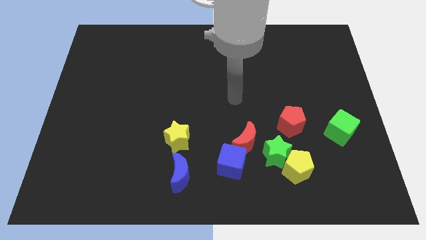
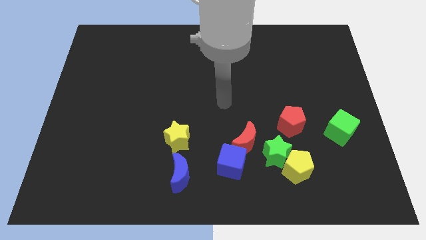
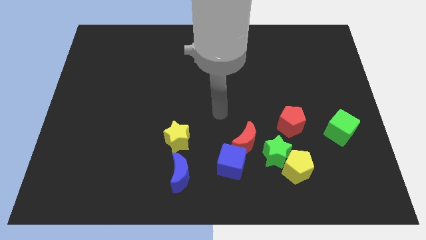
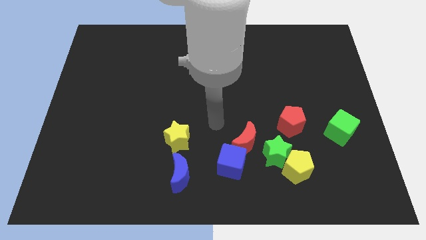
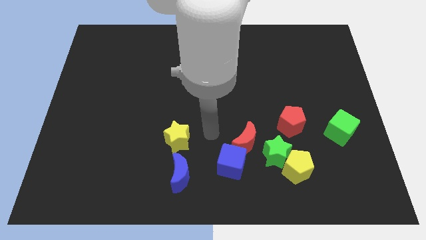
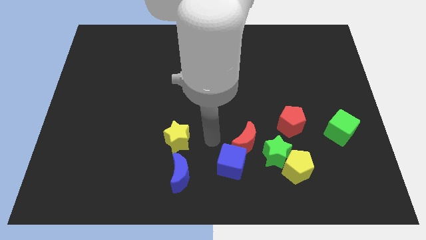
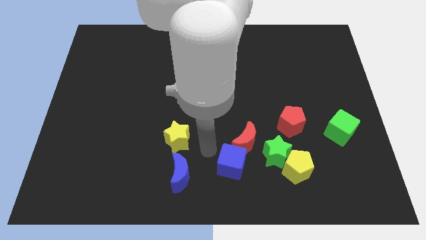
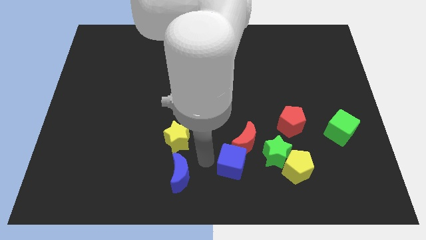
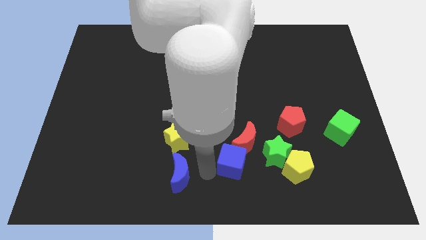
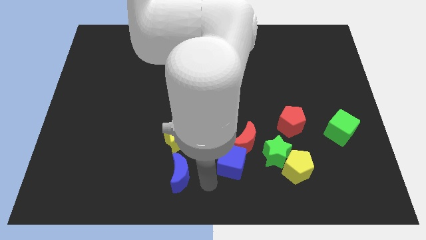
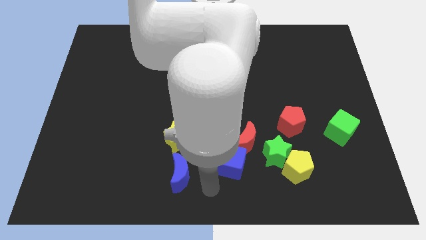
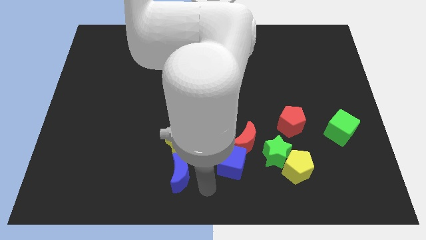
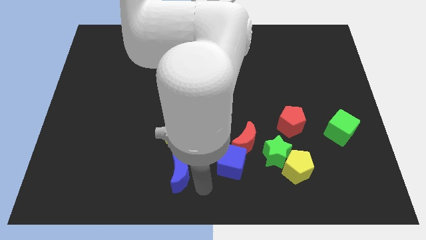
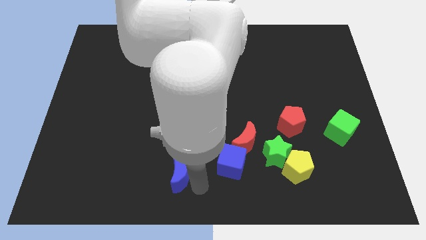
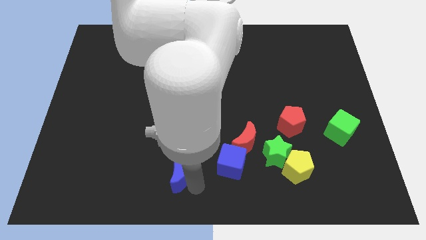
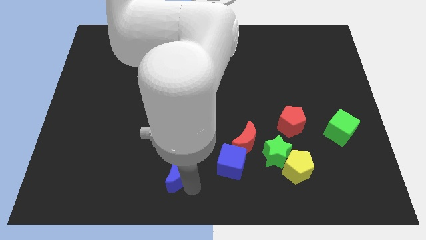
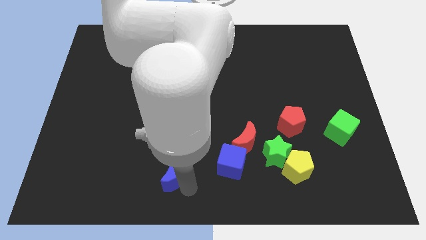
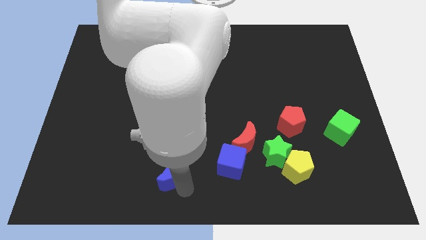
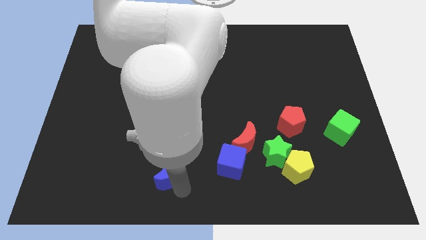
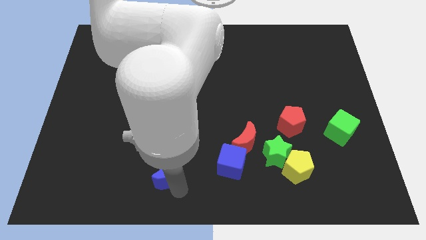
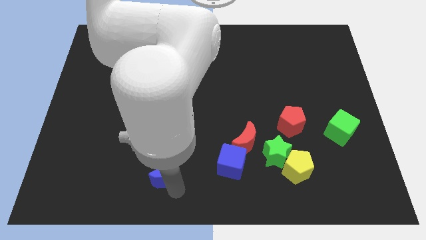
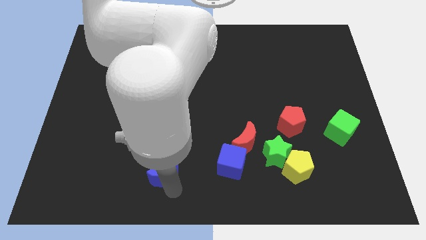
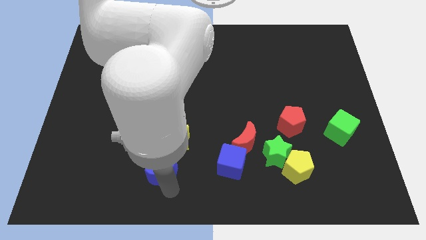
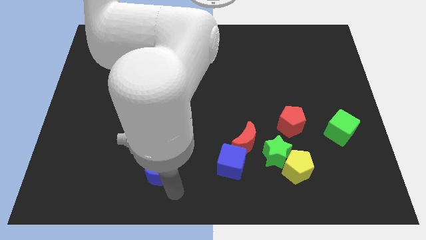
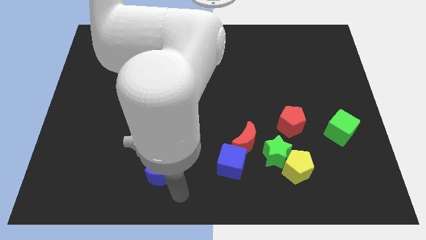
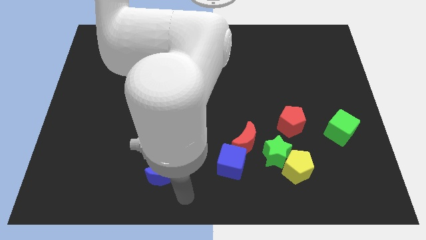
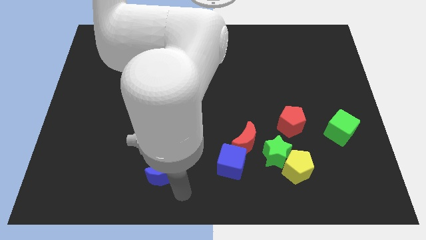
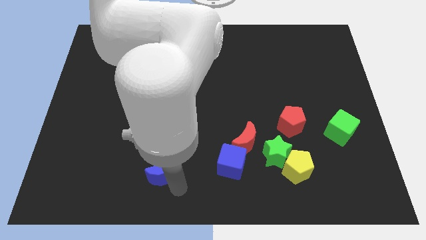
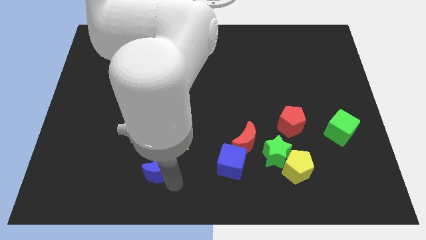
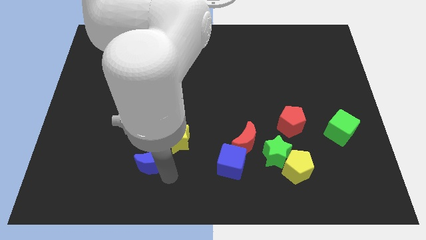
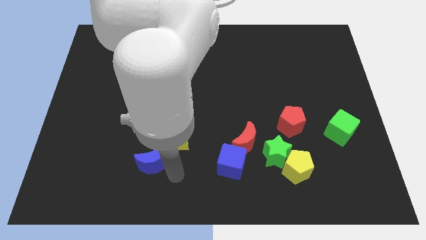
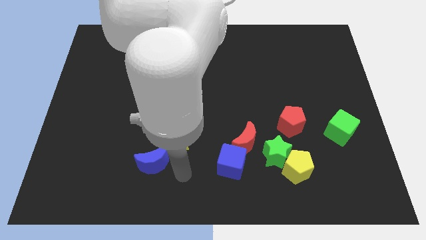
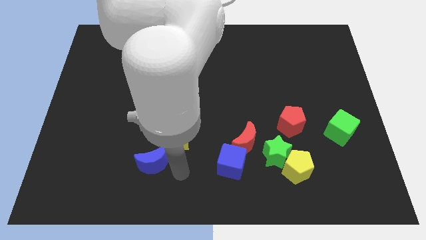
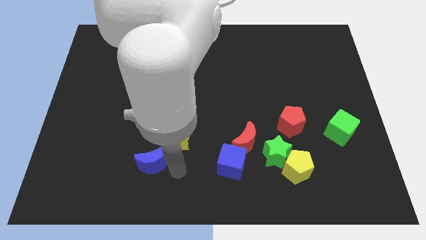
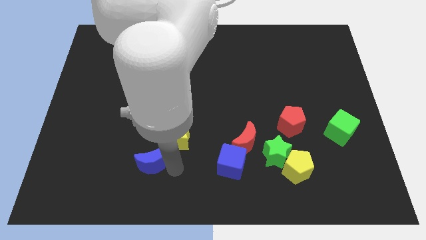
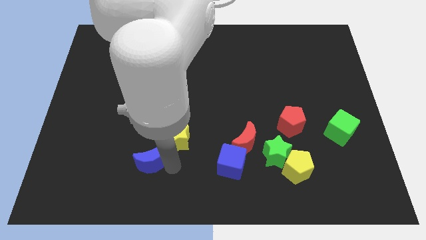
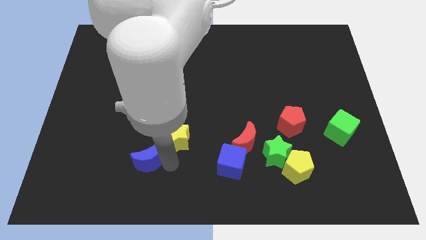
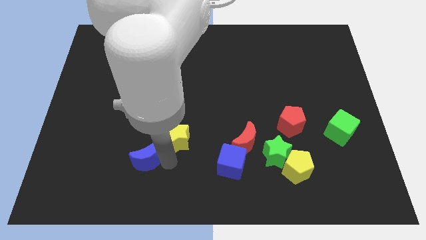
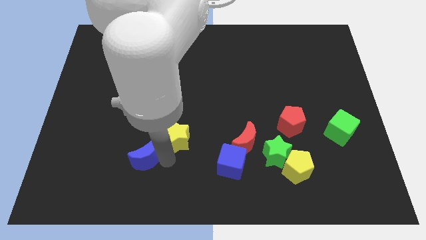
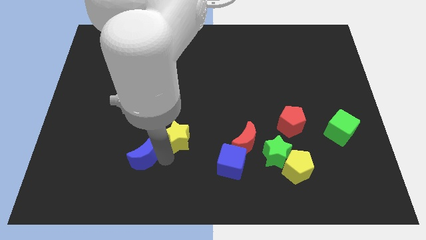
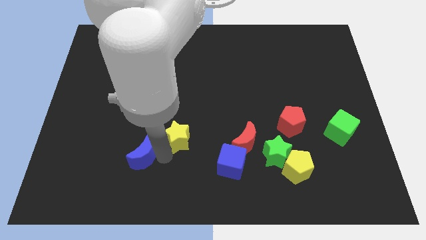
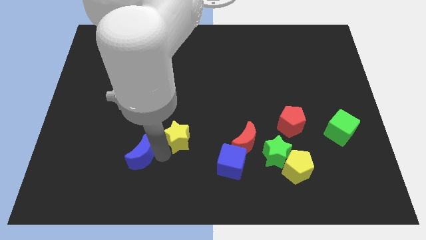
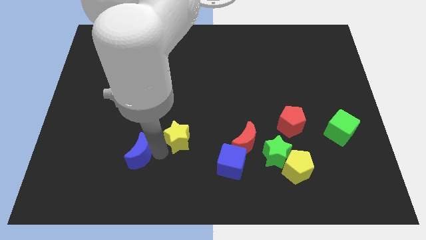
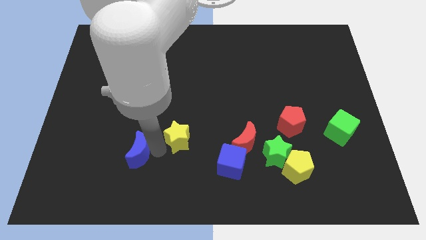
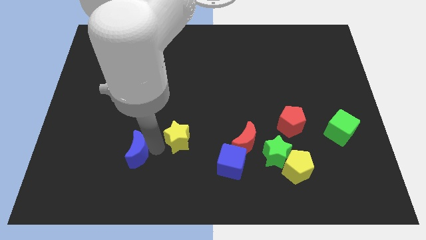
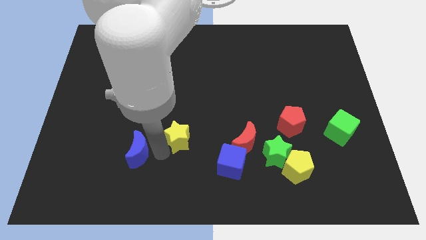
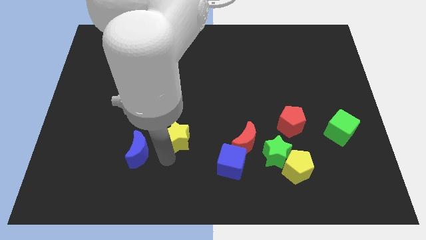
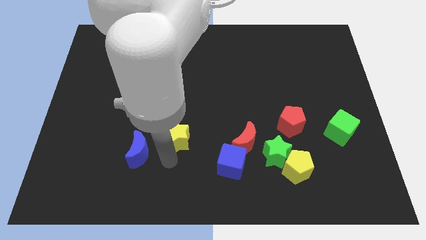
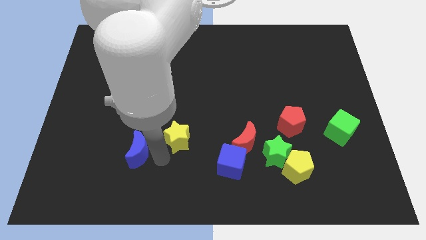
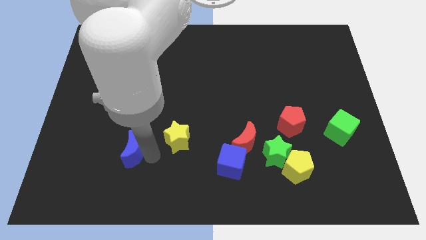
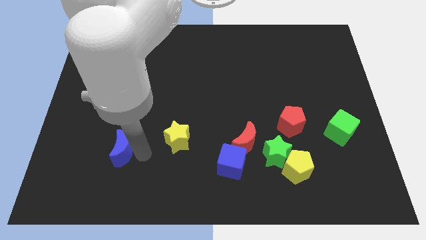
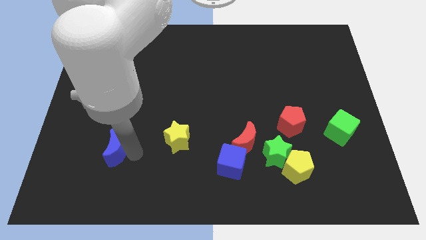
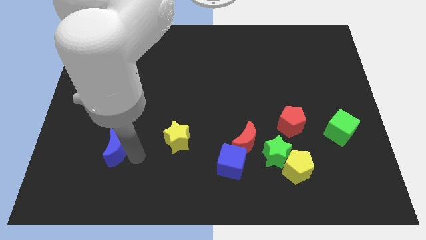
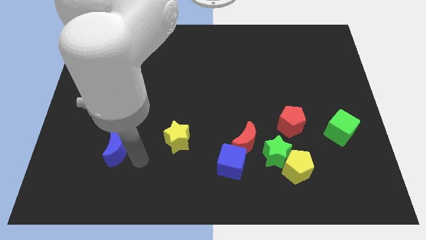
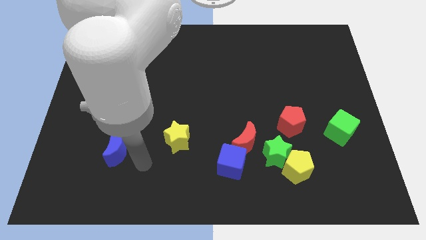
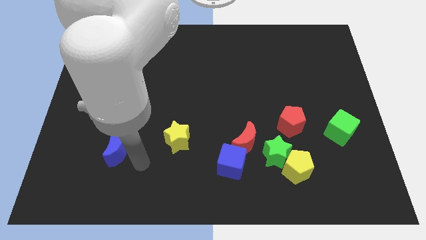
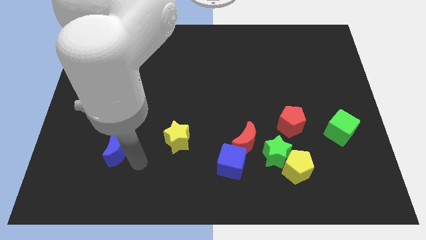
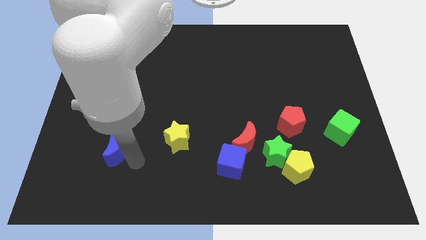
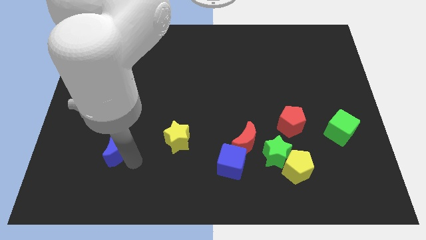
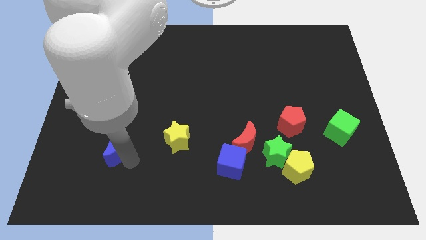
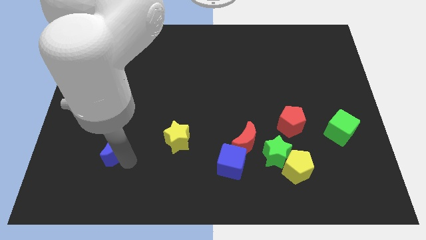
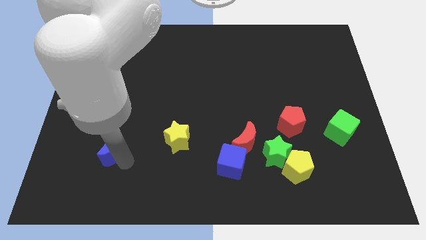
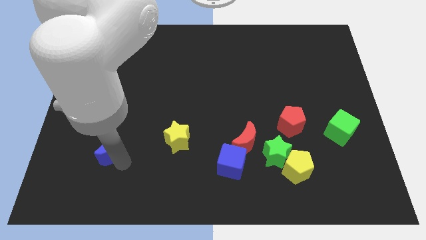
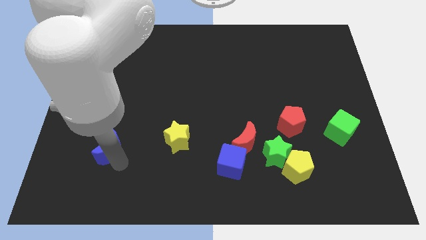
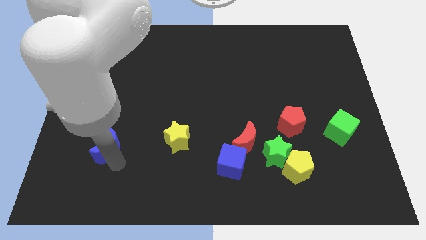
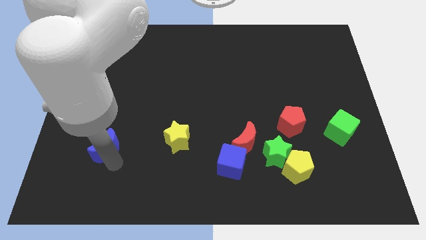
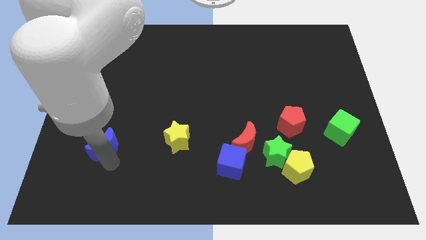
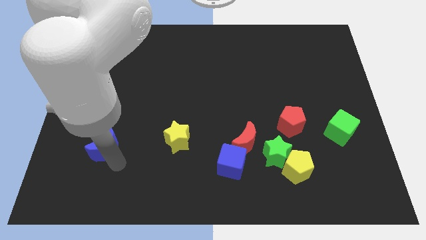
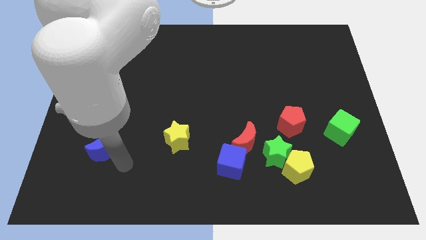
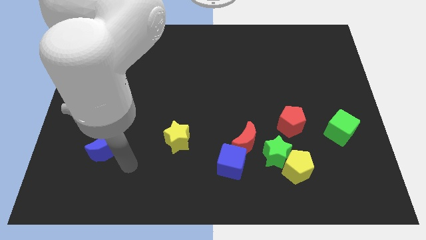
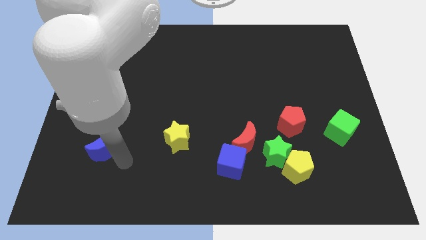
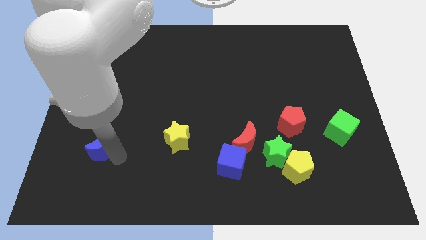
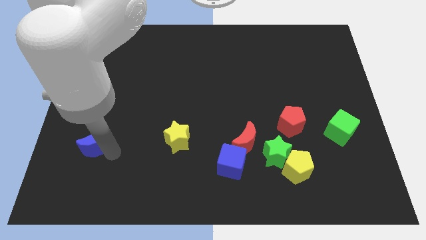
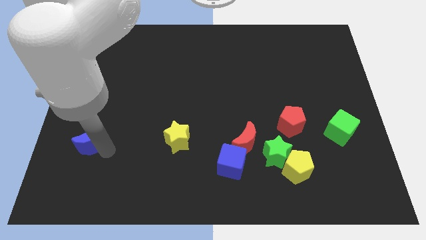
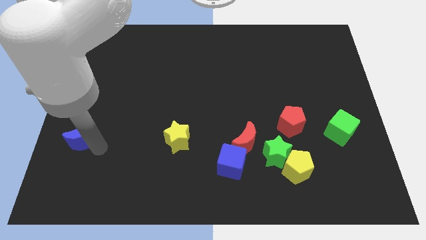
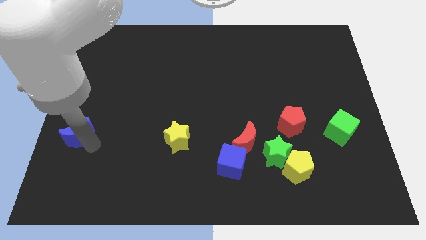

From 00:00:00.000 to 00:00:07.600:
push the blue moon to the center left
